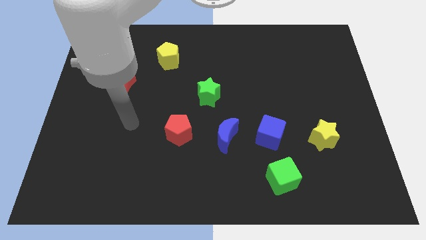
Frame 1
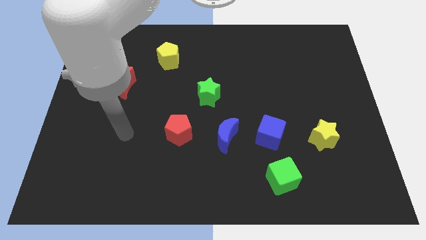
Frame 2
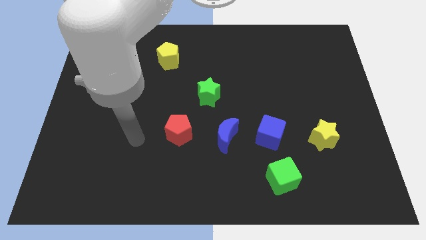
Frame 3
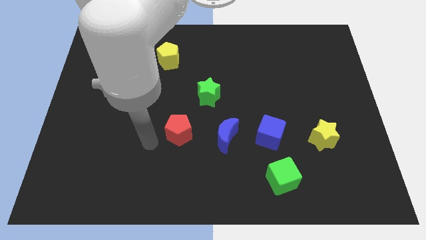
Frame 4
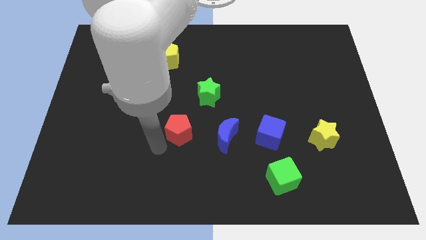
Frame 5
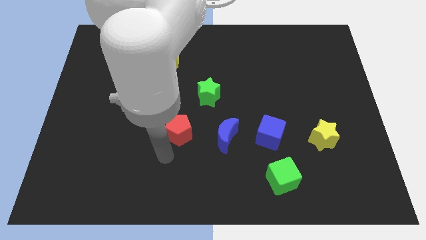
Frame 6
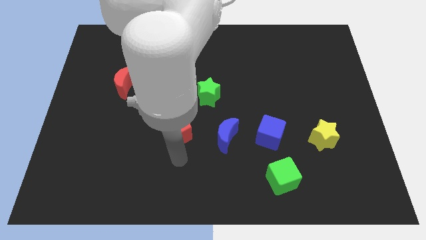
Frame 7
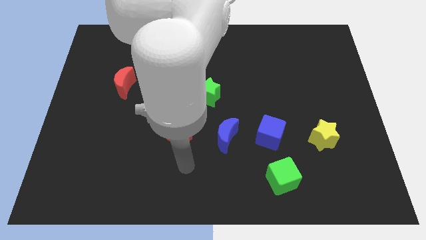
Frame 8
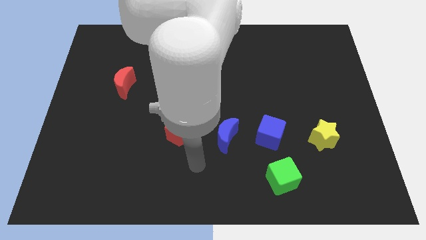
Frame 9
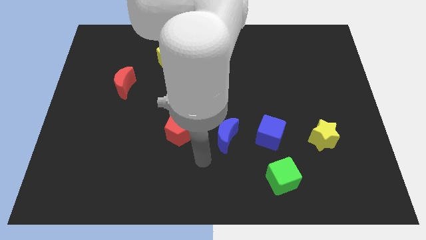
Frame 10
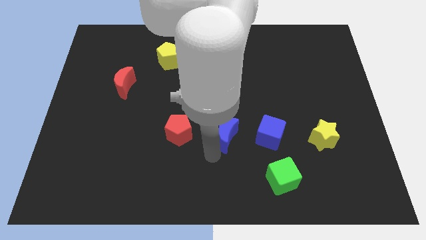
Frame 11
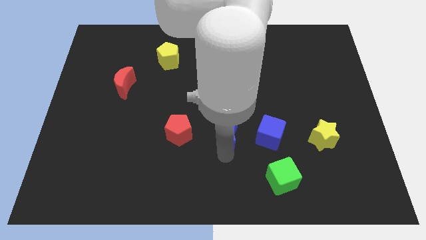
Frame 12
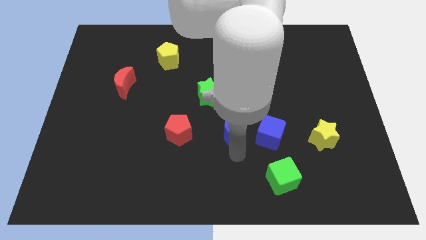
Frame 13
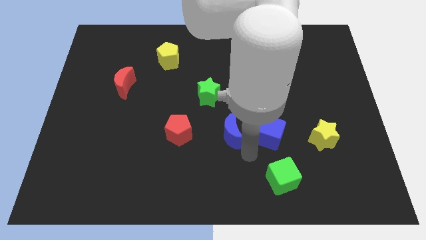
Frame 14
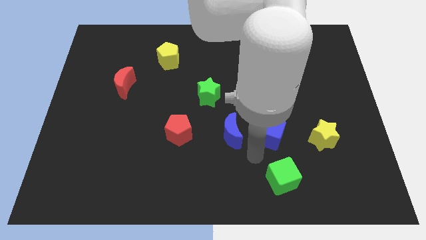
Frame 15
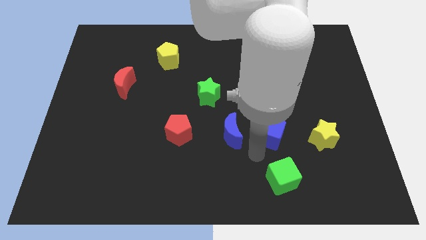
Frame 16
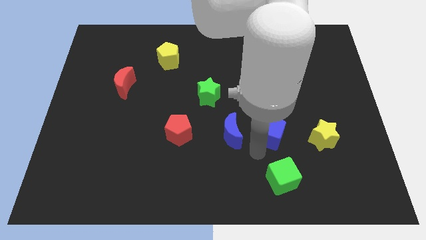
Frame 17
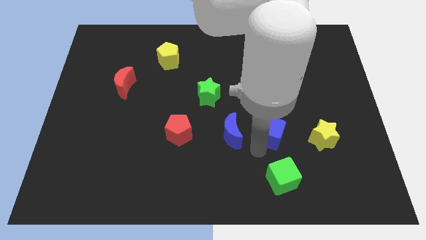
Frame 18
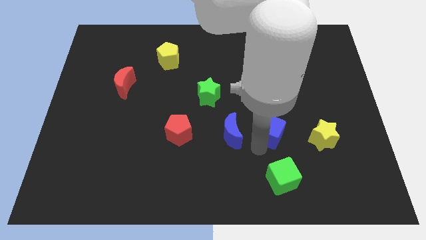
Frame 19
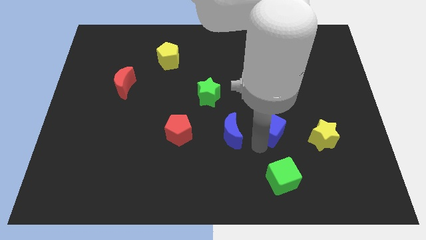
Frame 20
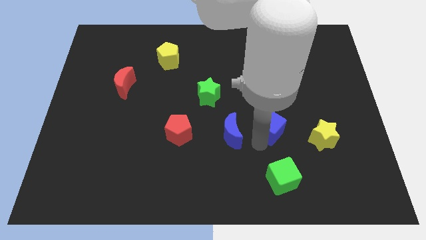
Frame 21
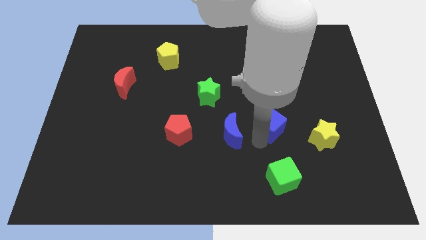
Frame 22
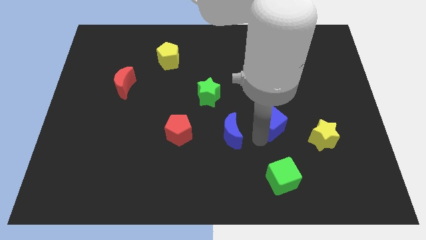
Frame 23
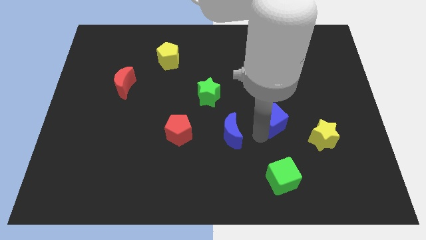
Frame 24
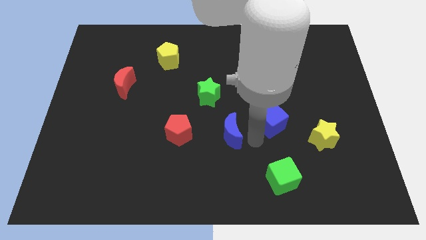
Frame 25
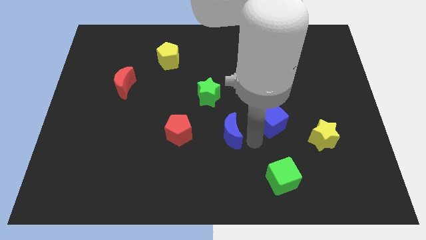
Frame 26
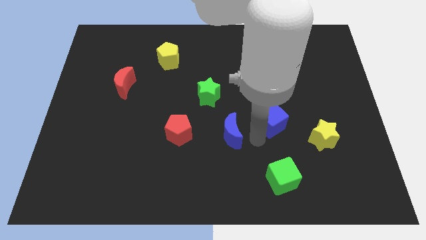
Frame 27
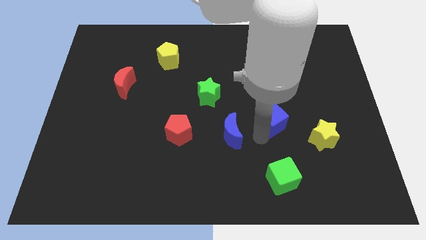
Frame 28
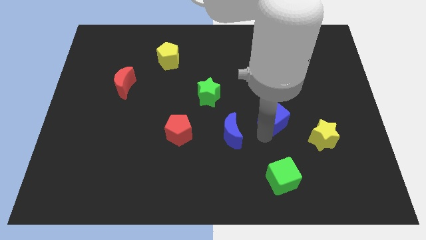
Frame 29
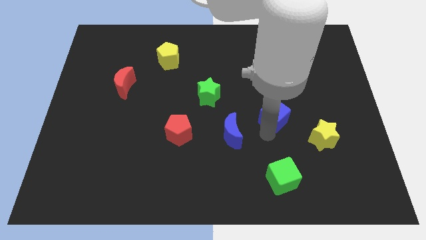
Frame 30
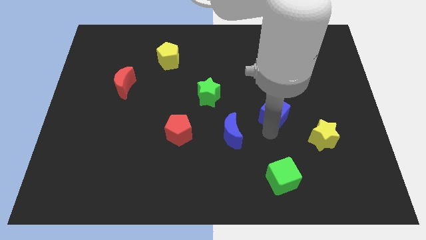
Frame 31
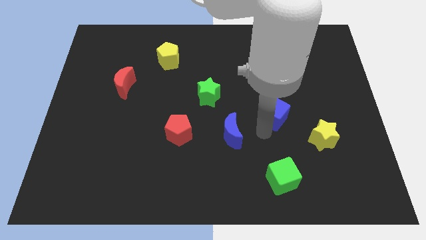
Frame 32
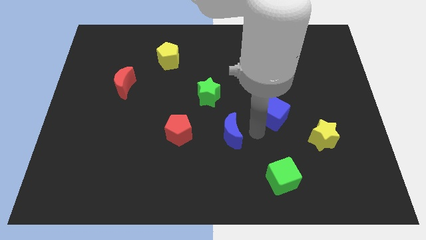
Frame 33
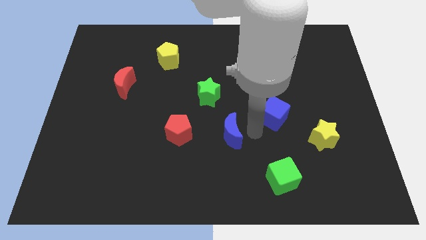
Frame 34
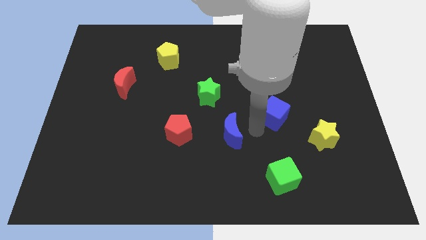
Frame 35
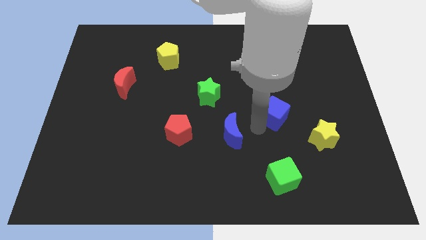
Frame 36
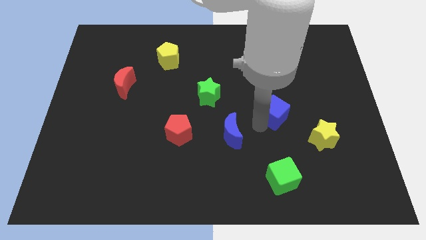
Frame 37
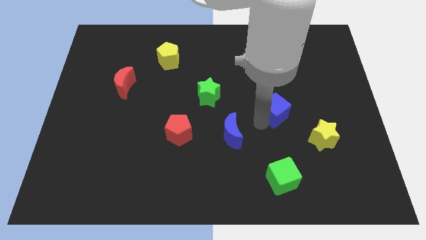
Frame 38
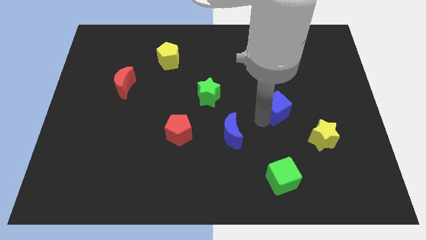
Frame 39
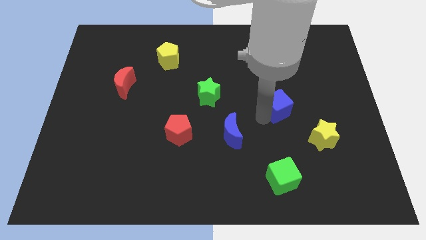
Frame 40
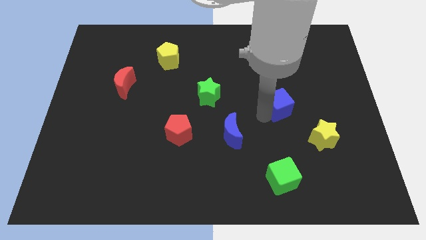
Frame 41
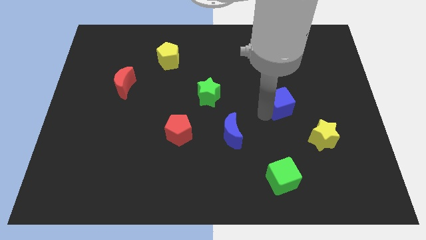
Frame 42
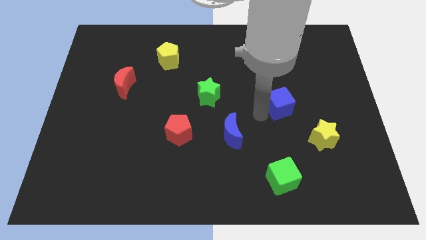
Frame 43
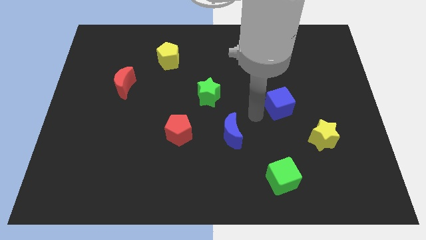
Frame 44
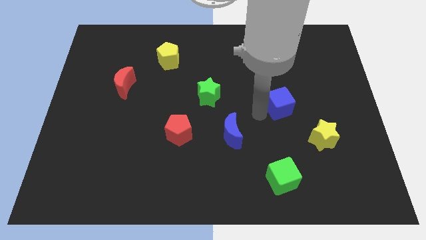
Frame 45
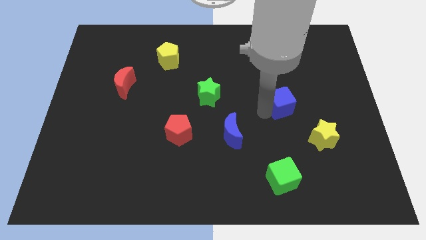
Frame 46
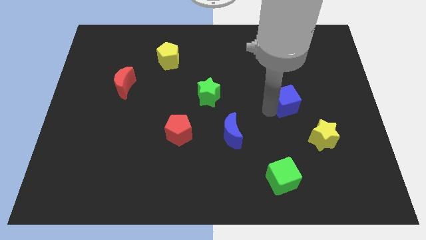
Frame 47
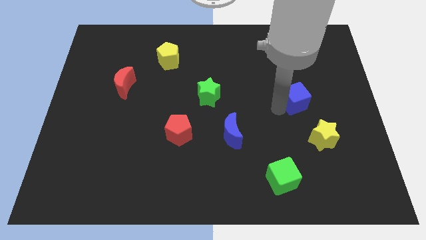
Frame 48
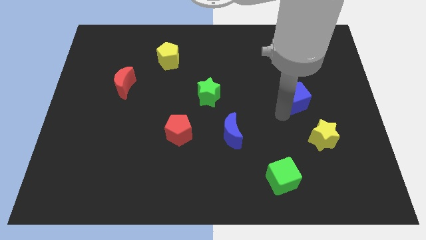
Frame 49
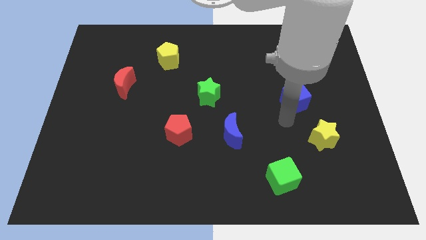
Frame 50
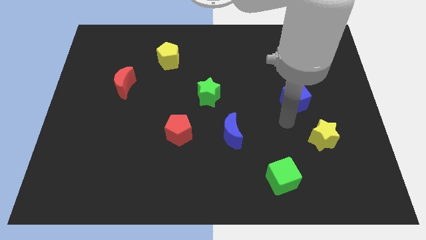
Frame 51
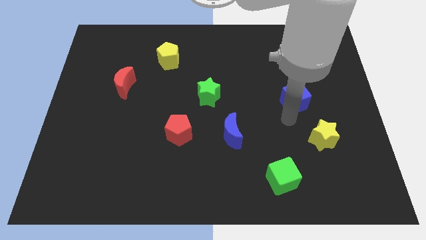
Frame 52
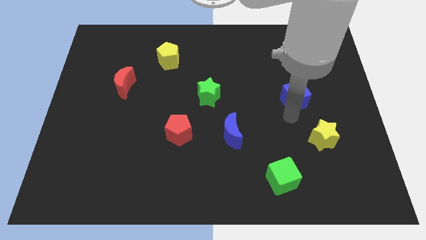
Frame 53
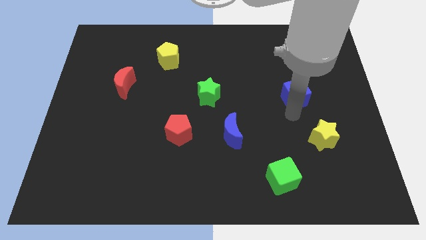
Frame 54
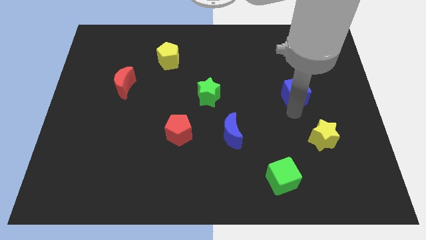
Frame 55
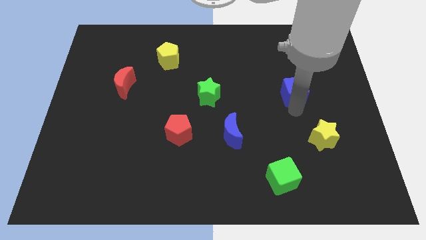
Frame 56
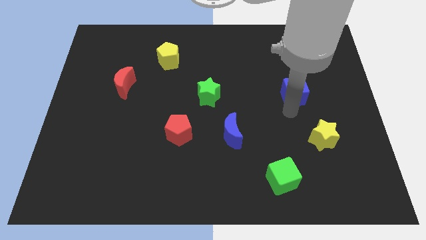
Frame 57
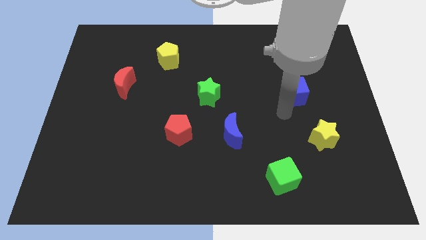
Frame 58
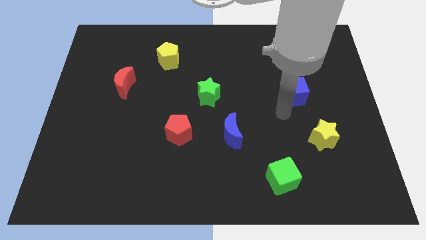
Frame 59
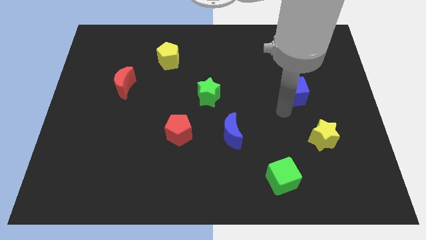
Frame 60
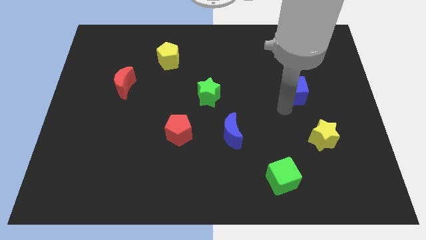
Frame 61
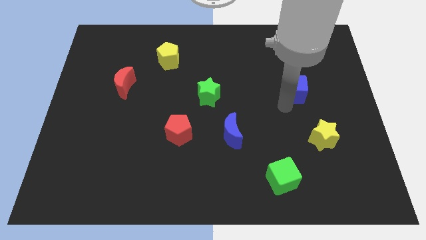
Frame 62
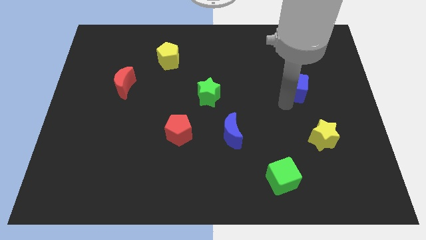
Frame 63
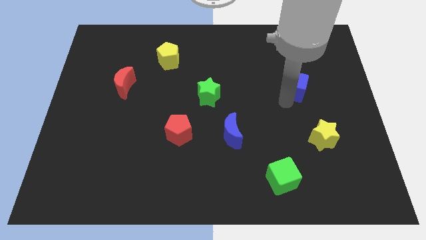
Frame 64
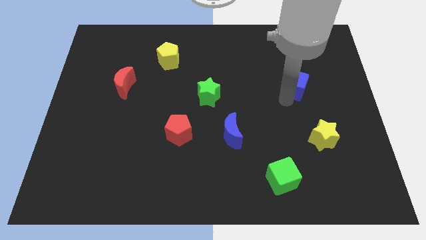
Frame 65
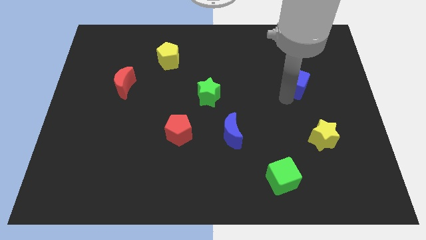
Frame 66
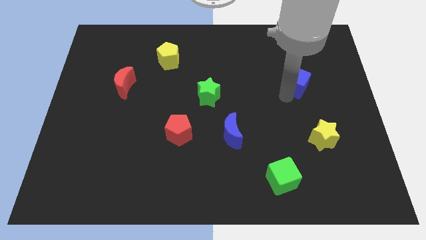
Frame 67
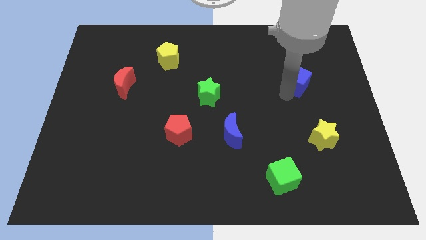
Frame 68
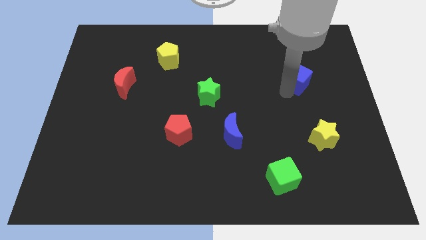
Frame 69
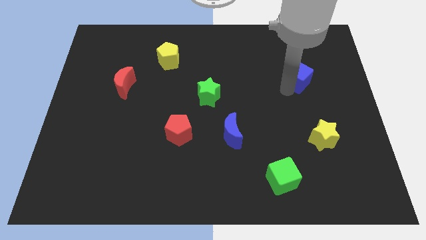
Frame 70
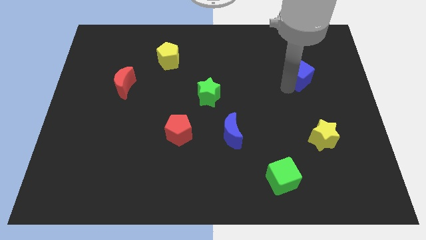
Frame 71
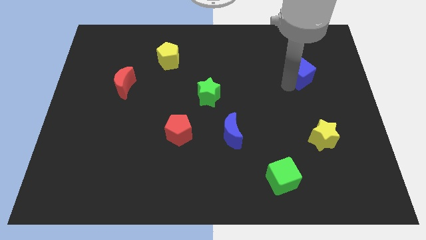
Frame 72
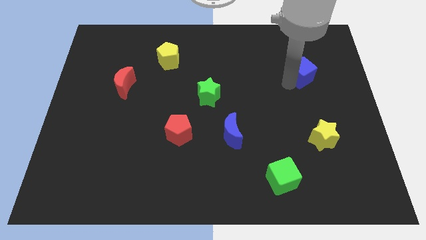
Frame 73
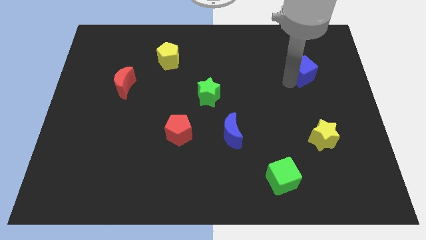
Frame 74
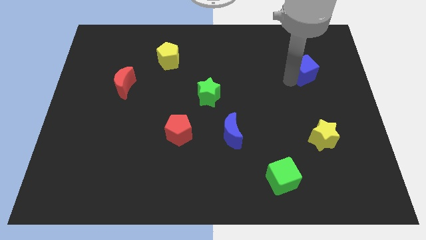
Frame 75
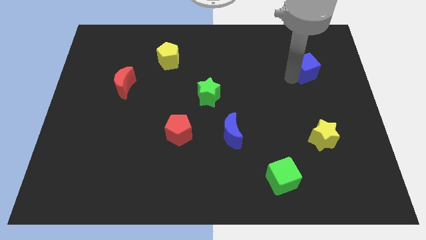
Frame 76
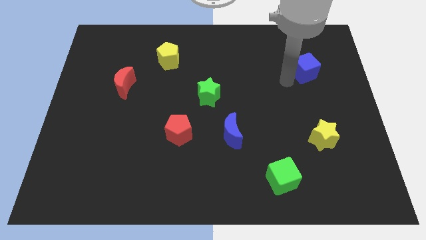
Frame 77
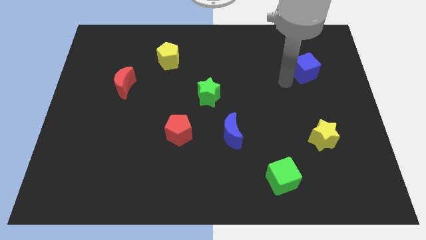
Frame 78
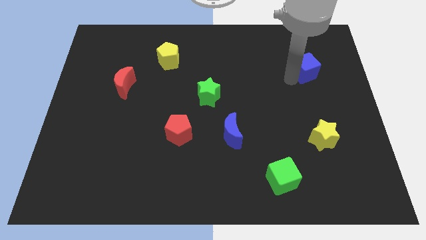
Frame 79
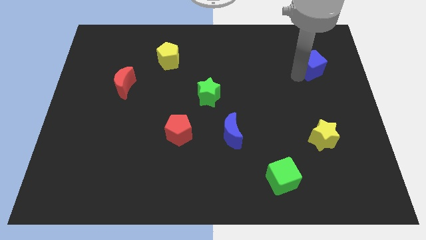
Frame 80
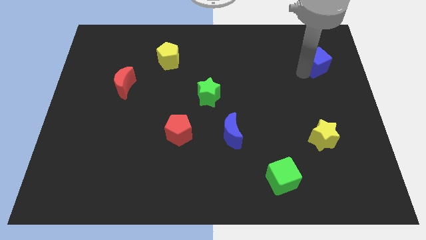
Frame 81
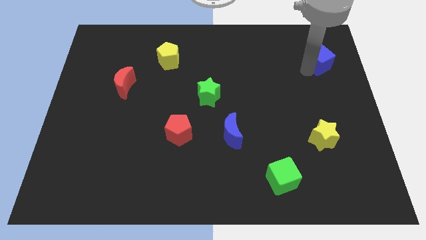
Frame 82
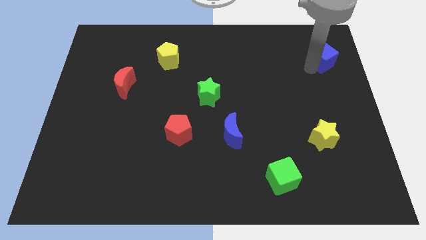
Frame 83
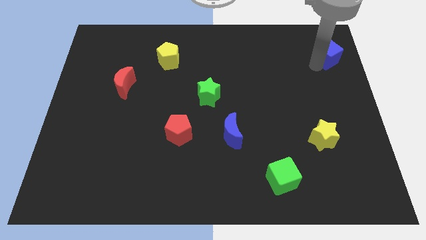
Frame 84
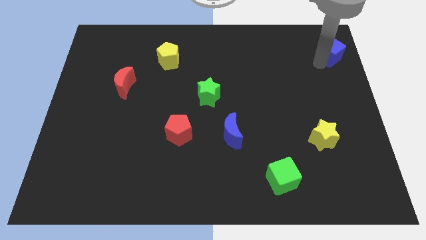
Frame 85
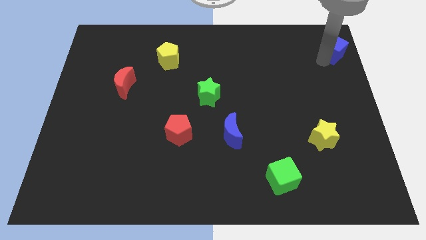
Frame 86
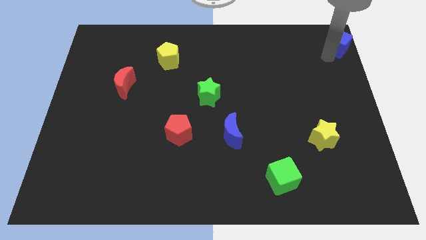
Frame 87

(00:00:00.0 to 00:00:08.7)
move the blue cube to the top right corner
